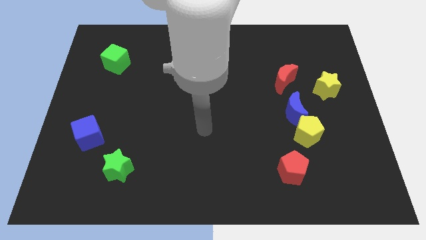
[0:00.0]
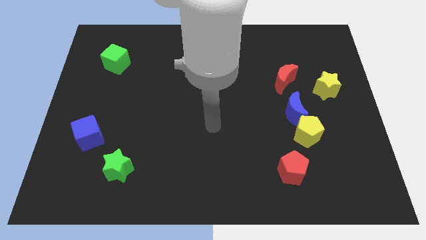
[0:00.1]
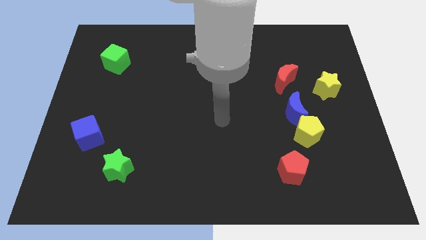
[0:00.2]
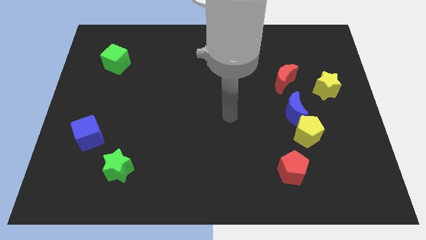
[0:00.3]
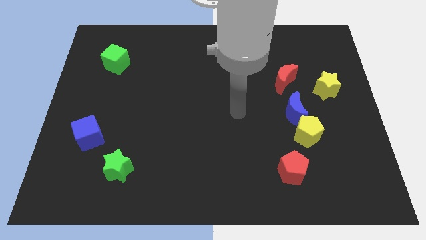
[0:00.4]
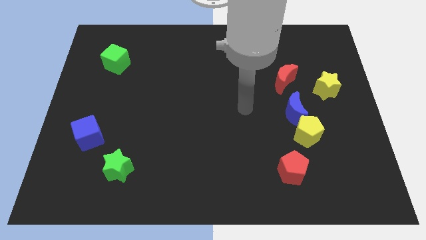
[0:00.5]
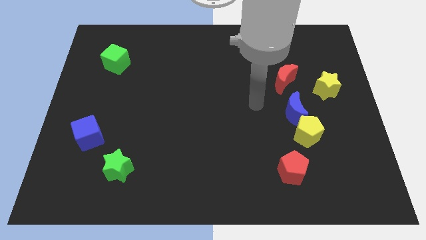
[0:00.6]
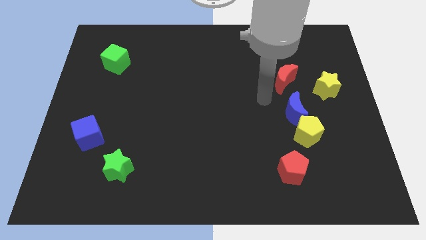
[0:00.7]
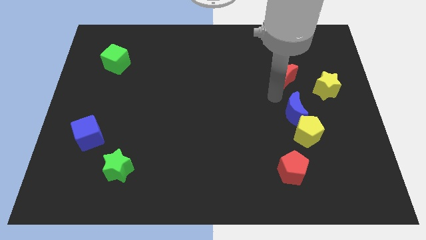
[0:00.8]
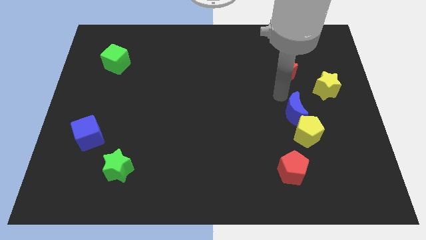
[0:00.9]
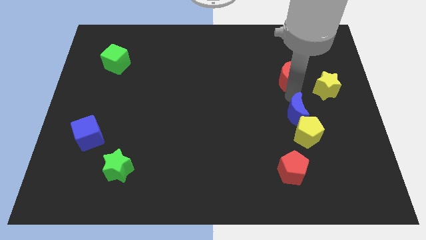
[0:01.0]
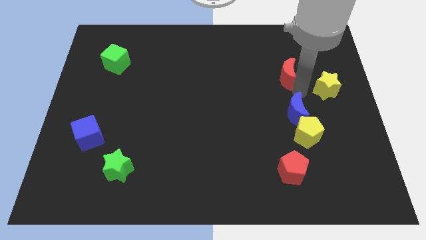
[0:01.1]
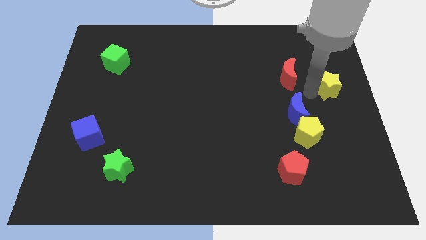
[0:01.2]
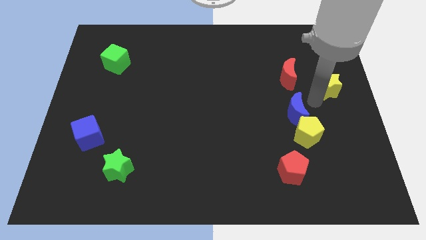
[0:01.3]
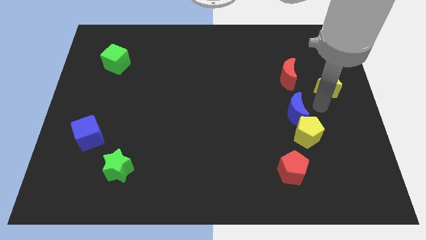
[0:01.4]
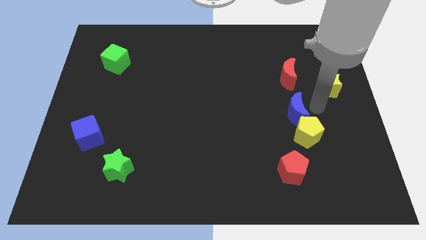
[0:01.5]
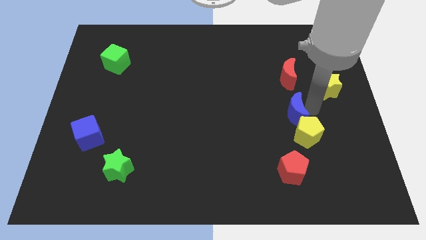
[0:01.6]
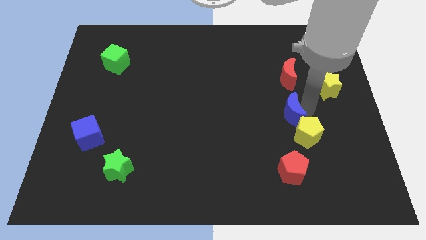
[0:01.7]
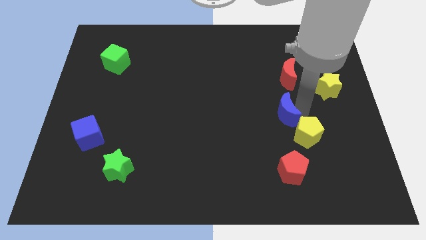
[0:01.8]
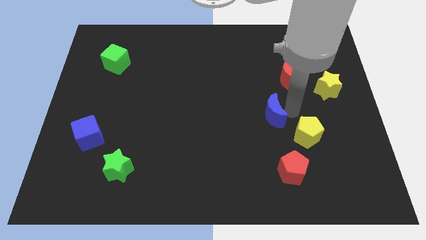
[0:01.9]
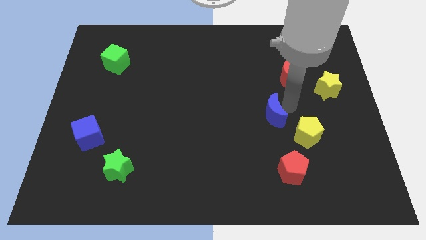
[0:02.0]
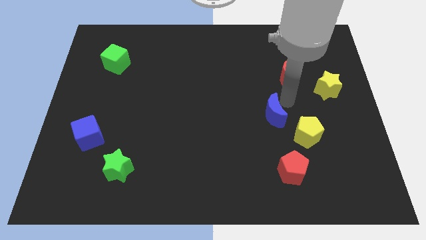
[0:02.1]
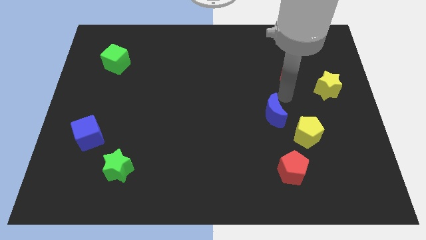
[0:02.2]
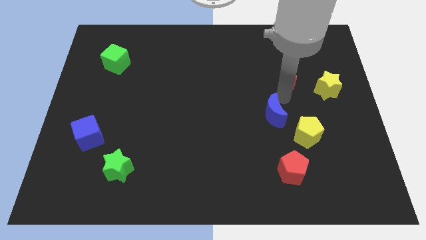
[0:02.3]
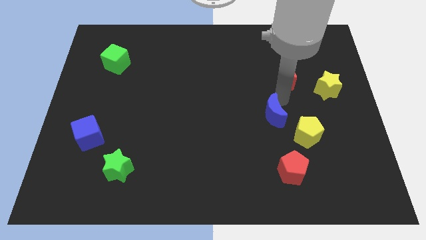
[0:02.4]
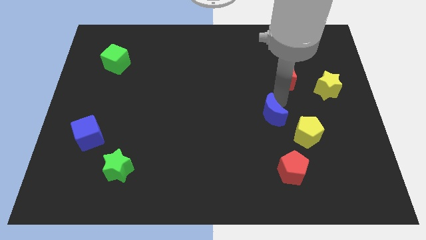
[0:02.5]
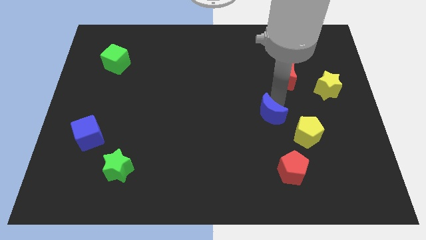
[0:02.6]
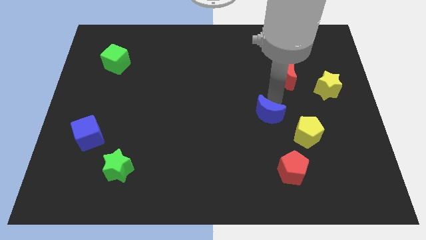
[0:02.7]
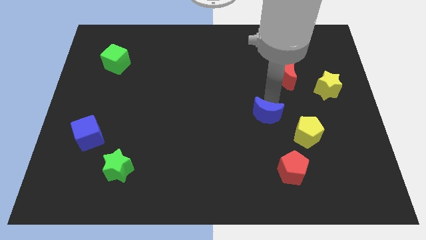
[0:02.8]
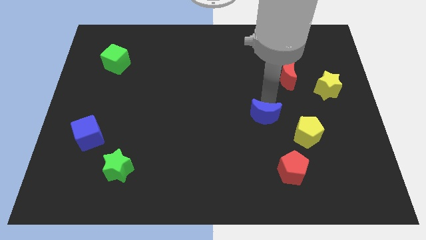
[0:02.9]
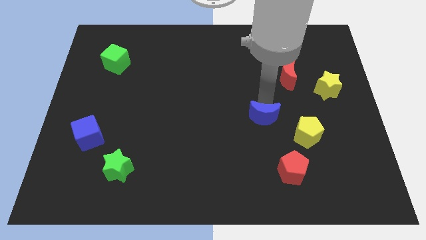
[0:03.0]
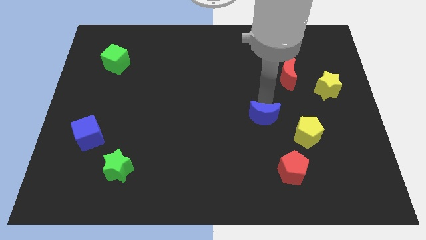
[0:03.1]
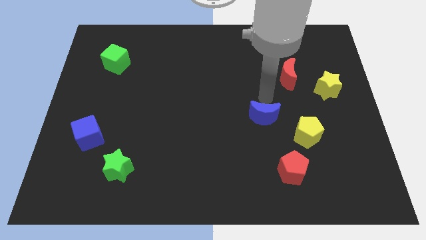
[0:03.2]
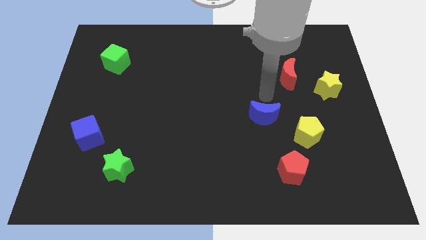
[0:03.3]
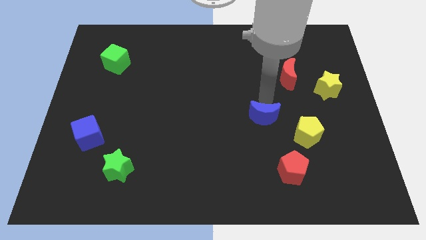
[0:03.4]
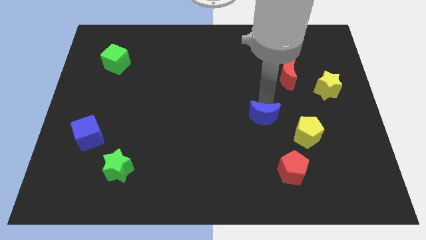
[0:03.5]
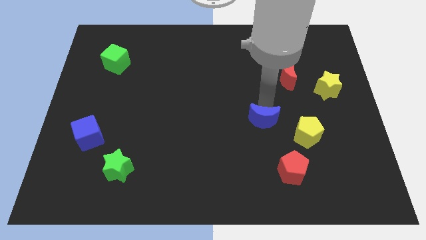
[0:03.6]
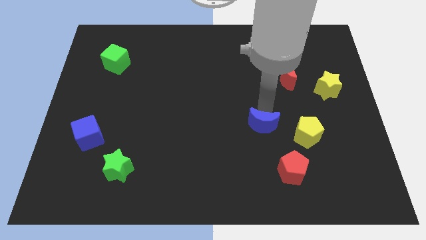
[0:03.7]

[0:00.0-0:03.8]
slightly move the blue moon downwards and then to the left

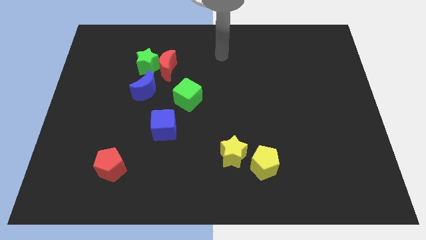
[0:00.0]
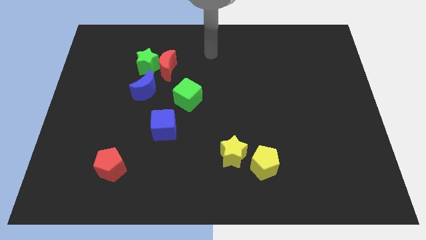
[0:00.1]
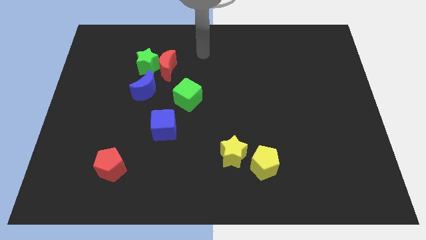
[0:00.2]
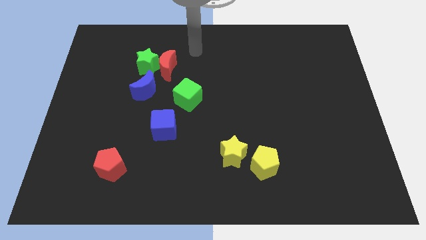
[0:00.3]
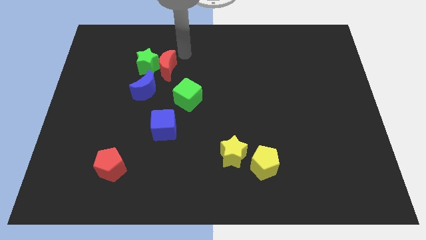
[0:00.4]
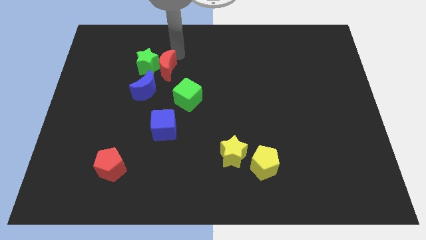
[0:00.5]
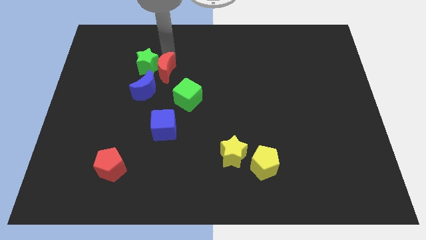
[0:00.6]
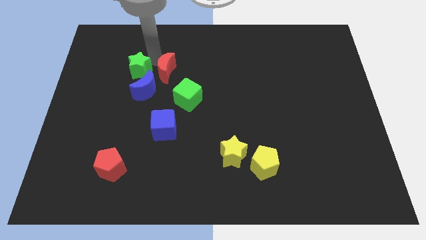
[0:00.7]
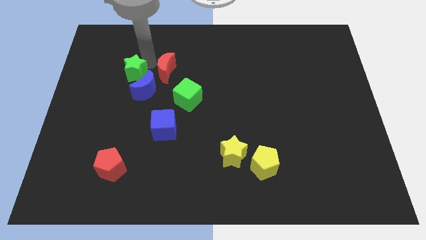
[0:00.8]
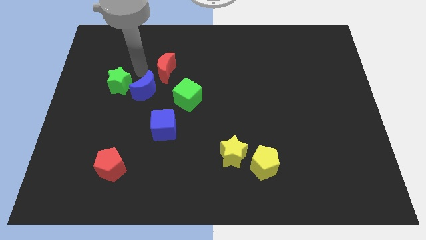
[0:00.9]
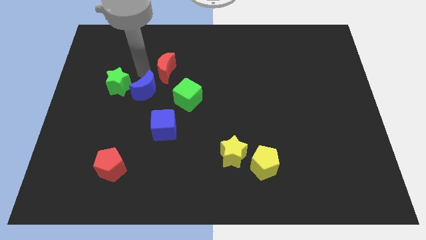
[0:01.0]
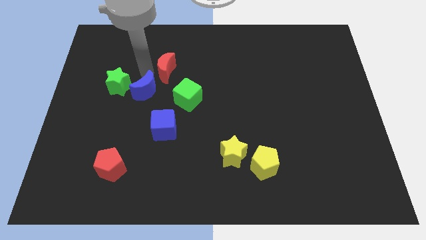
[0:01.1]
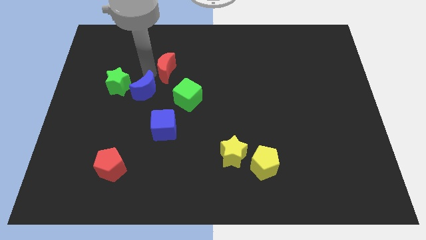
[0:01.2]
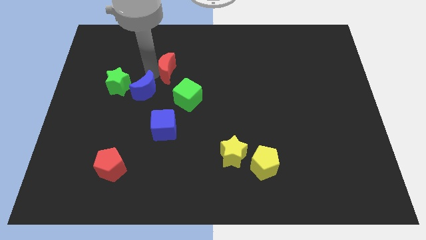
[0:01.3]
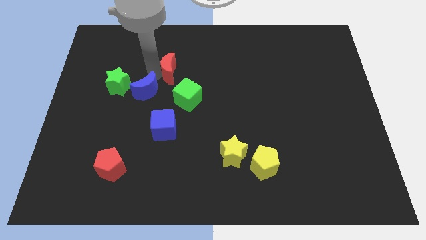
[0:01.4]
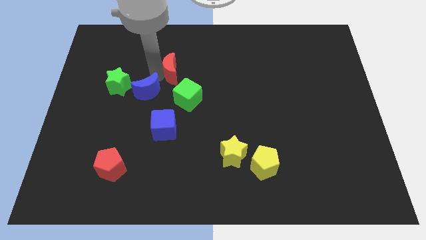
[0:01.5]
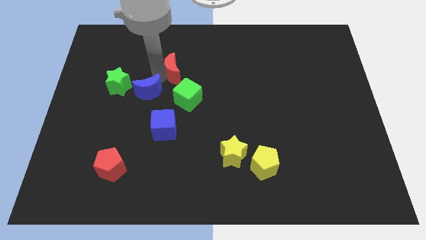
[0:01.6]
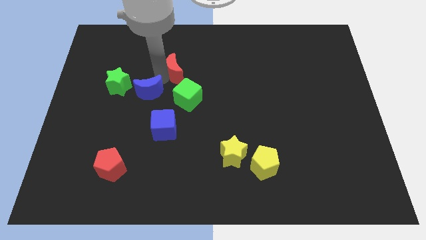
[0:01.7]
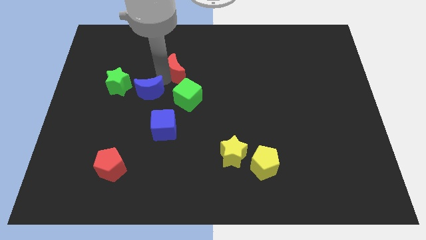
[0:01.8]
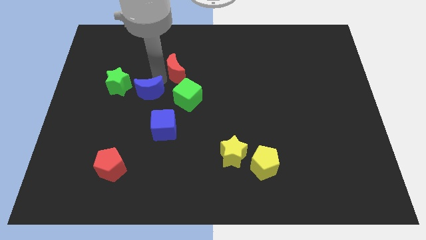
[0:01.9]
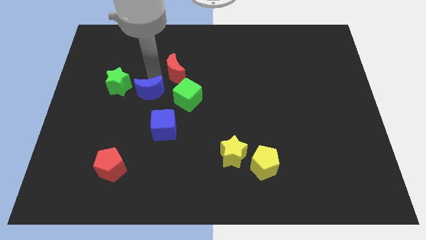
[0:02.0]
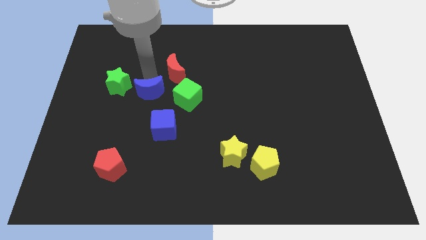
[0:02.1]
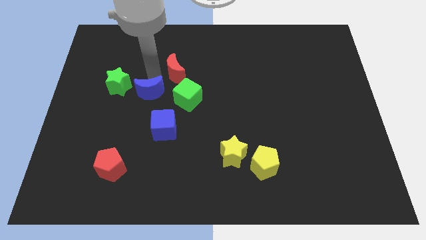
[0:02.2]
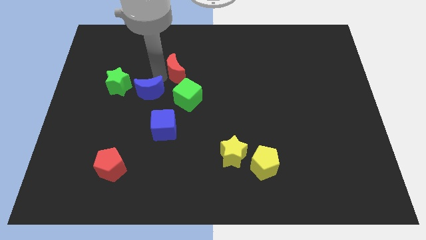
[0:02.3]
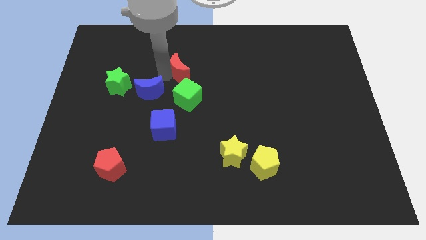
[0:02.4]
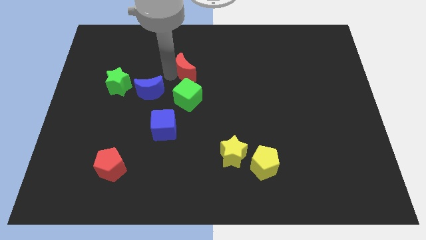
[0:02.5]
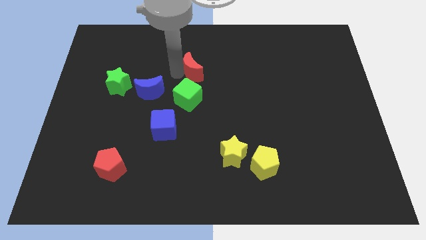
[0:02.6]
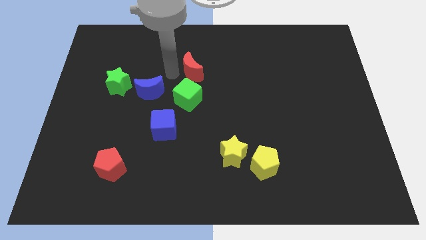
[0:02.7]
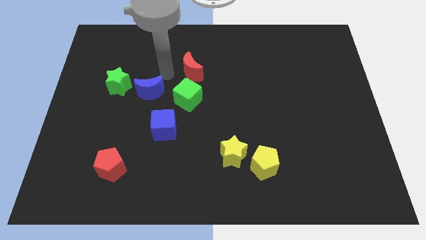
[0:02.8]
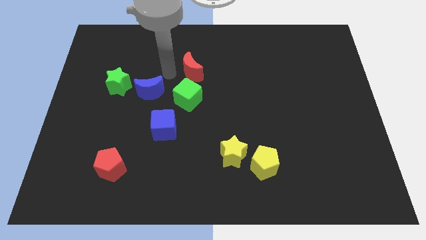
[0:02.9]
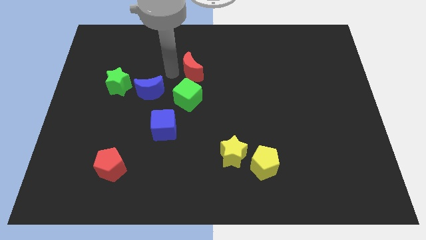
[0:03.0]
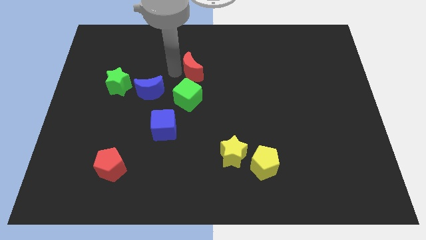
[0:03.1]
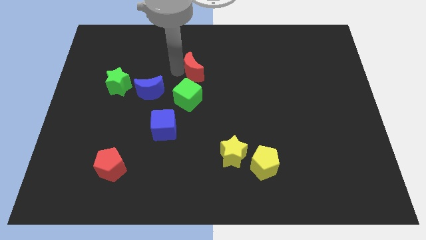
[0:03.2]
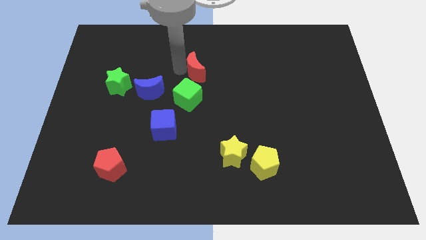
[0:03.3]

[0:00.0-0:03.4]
slightly slide the red moon right

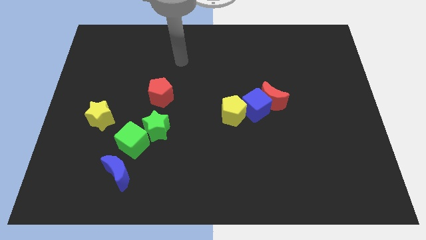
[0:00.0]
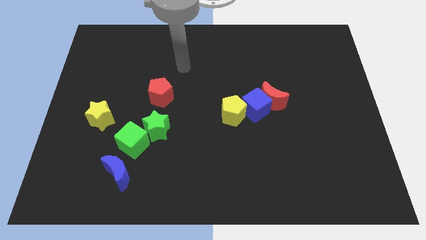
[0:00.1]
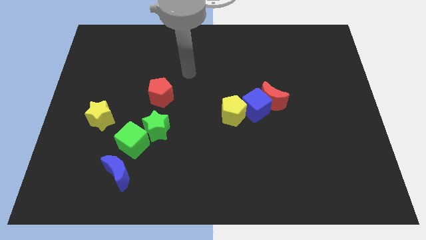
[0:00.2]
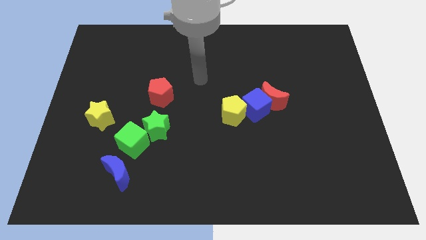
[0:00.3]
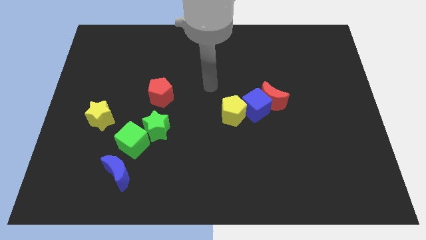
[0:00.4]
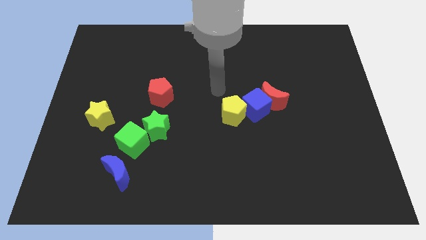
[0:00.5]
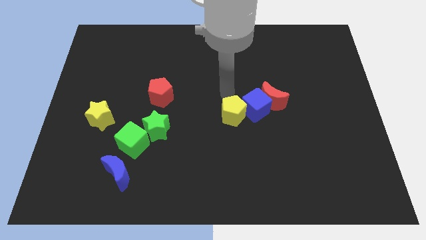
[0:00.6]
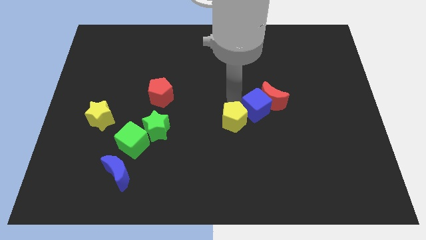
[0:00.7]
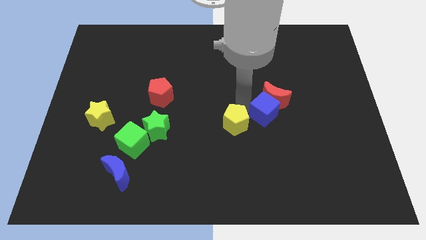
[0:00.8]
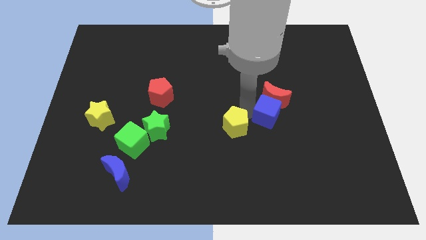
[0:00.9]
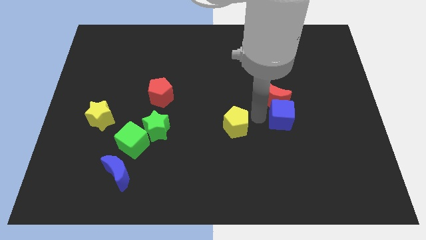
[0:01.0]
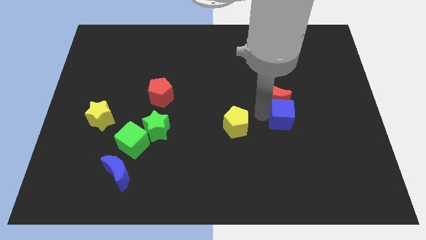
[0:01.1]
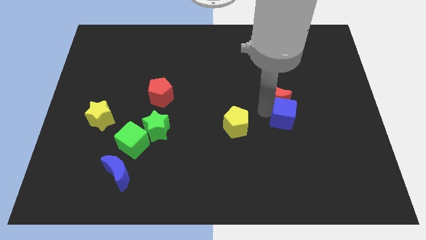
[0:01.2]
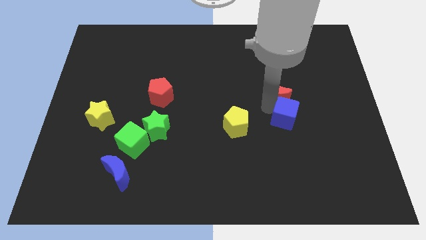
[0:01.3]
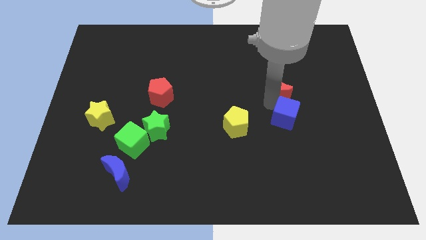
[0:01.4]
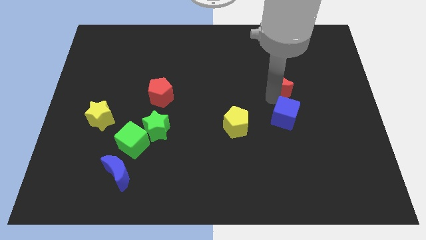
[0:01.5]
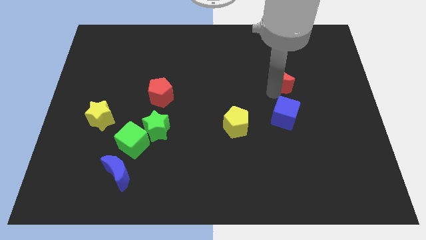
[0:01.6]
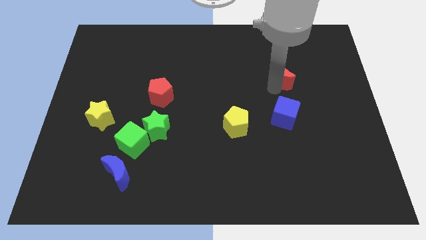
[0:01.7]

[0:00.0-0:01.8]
slide the red moon upwards and right diagonally a bit
